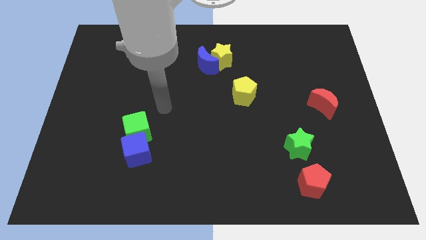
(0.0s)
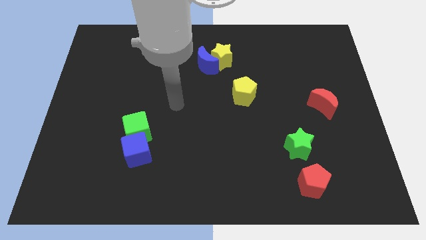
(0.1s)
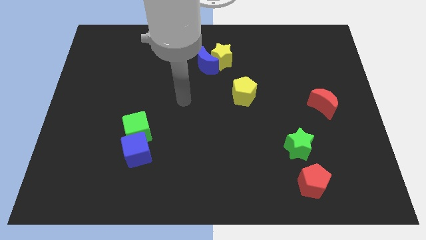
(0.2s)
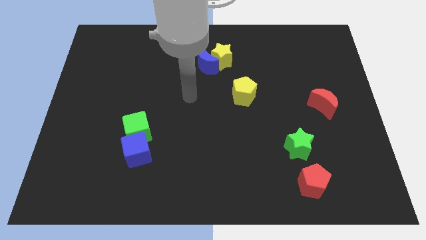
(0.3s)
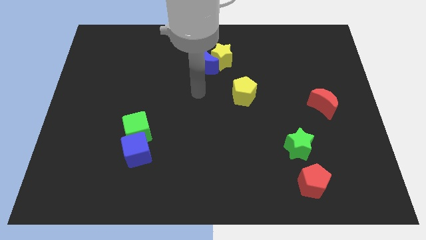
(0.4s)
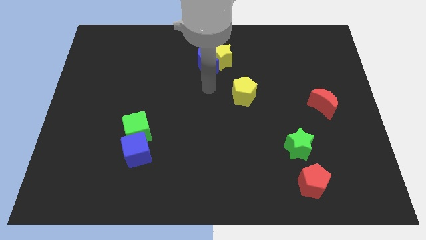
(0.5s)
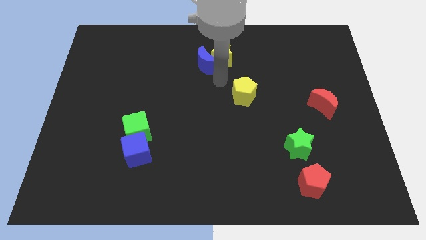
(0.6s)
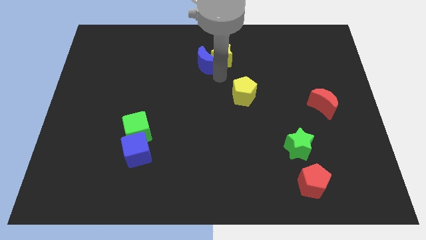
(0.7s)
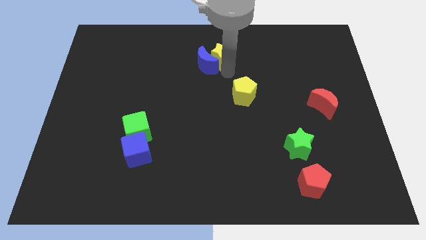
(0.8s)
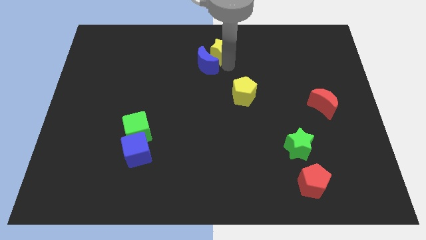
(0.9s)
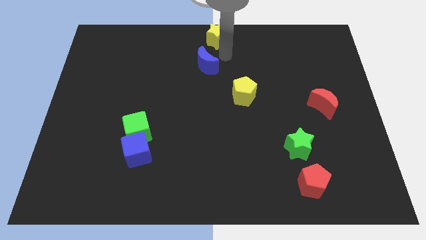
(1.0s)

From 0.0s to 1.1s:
pull the blue moon apart from the yellow star

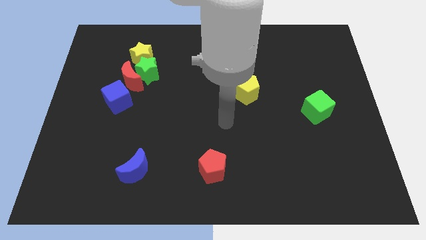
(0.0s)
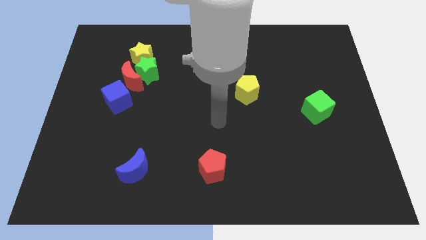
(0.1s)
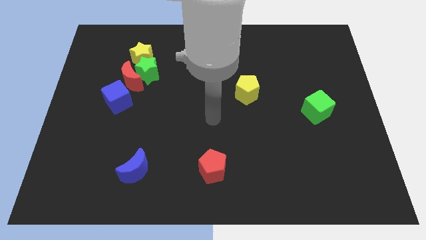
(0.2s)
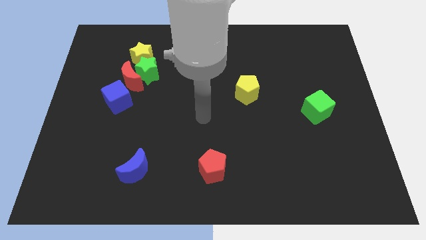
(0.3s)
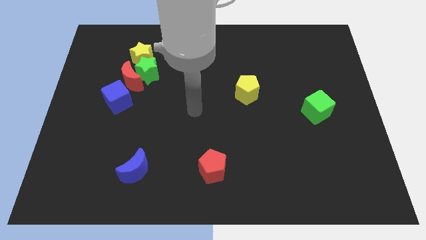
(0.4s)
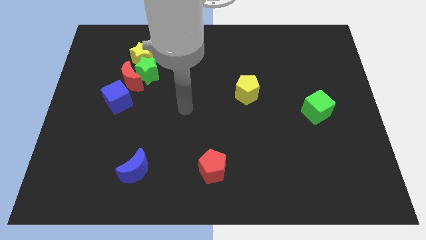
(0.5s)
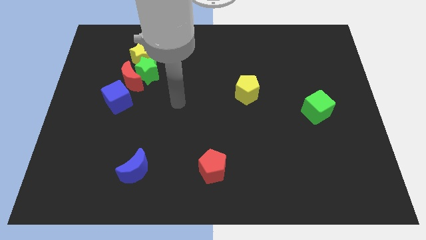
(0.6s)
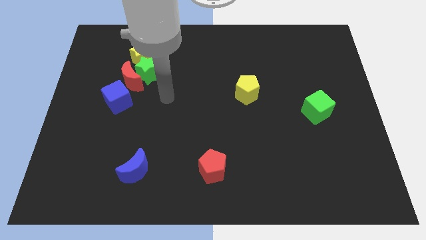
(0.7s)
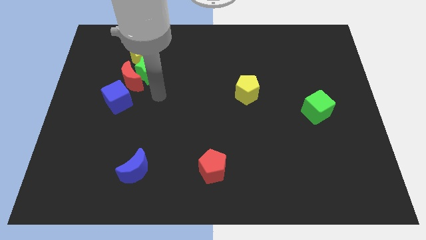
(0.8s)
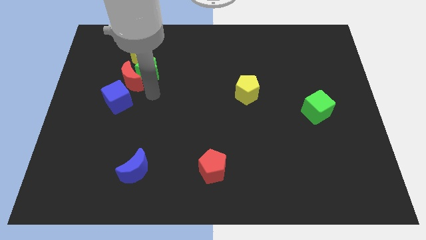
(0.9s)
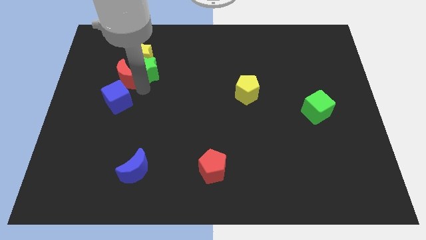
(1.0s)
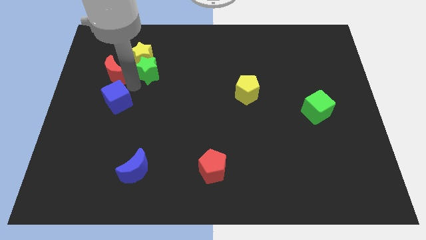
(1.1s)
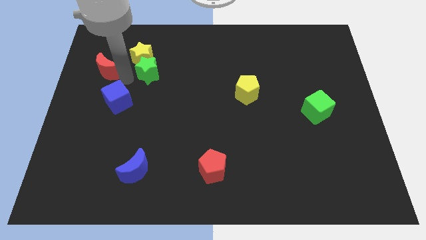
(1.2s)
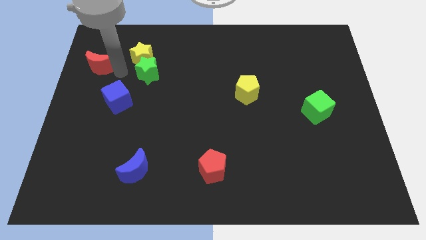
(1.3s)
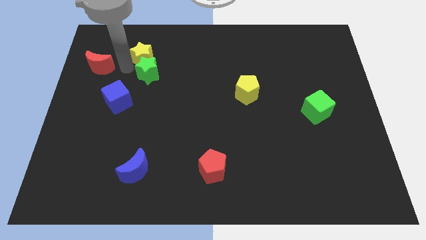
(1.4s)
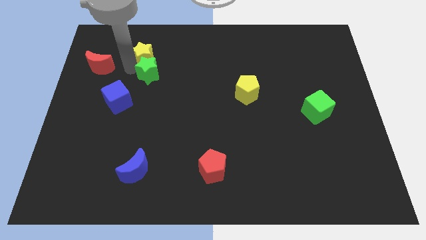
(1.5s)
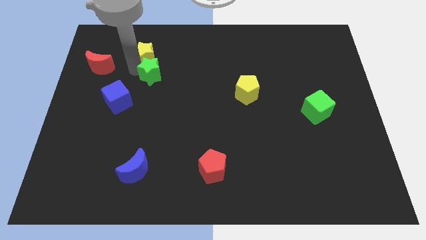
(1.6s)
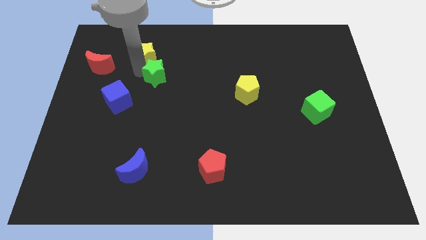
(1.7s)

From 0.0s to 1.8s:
pull the green star apart from the red moon and yellow star

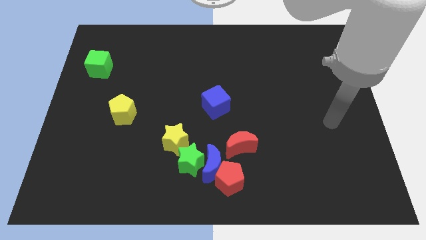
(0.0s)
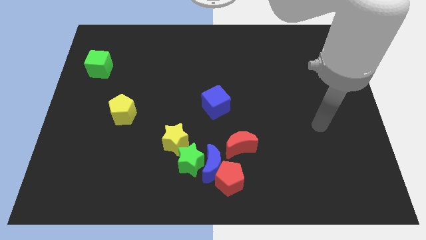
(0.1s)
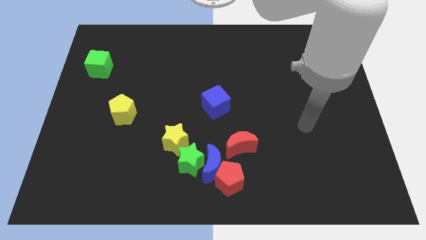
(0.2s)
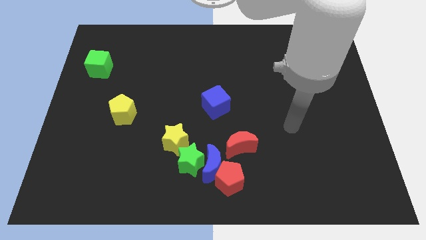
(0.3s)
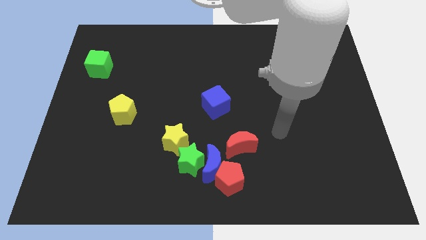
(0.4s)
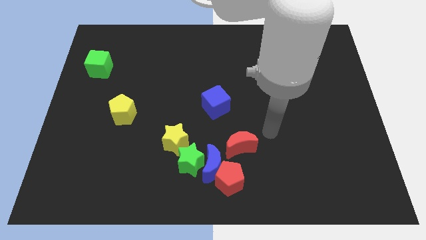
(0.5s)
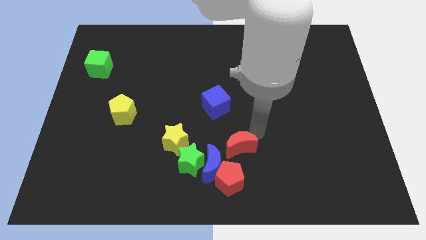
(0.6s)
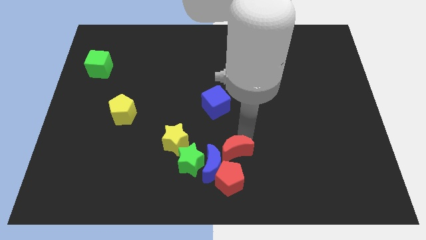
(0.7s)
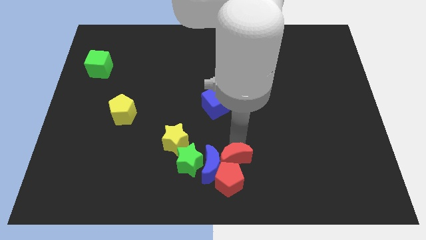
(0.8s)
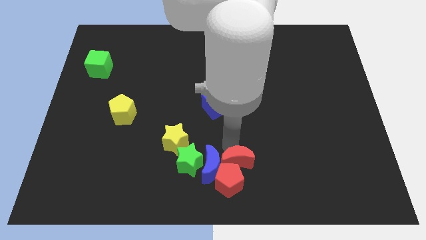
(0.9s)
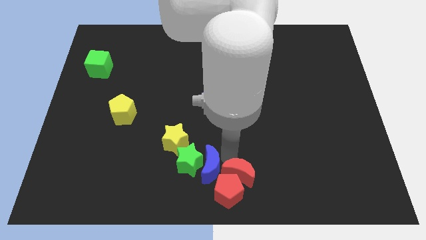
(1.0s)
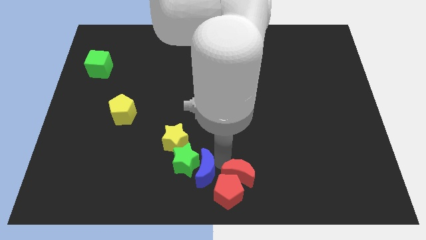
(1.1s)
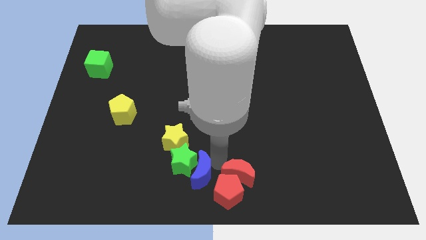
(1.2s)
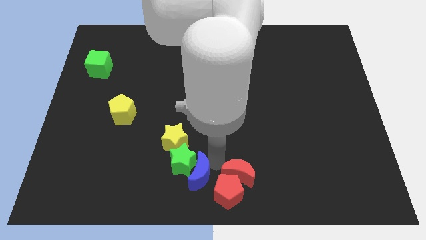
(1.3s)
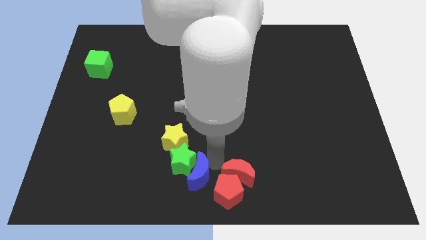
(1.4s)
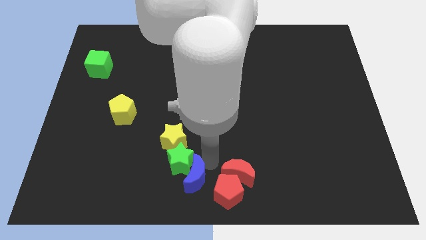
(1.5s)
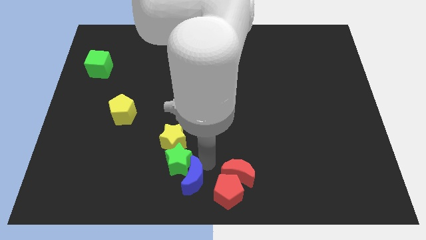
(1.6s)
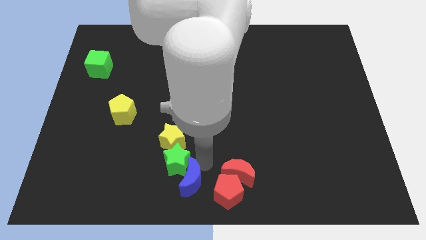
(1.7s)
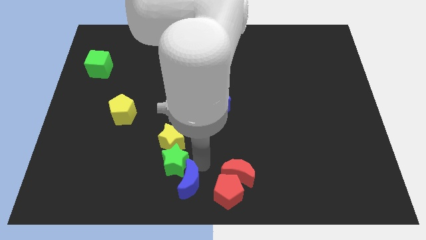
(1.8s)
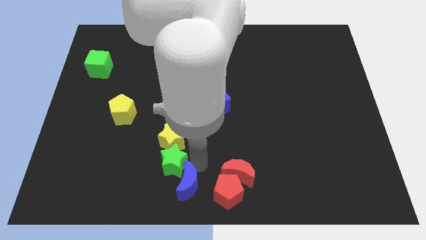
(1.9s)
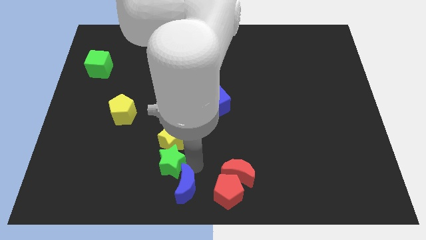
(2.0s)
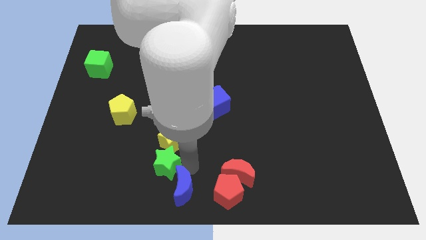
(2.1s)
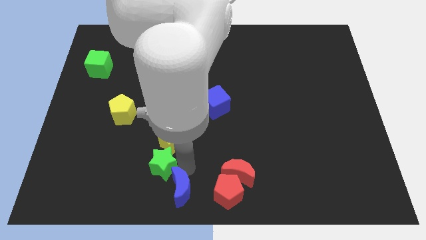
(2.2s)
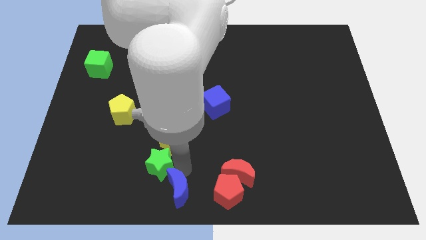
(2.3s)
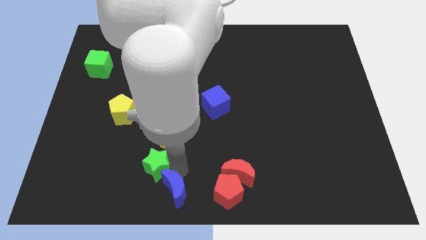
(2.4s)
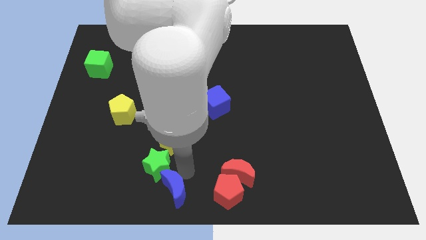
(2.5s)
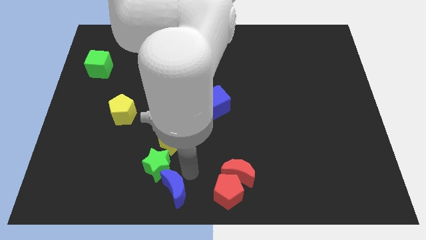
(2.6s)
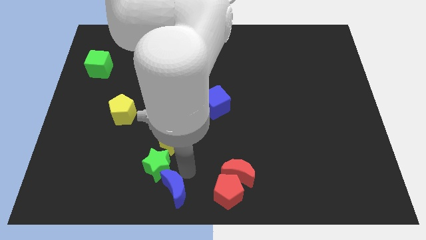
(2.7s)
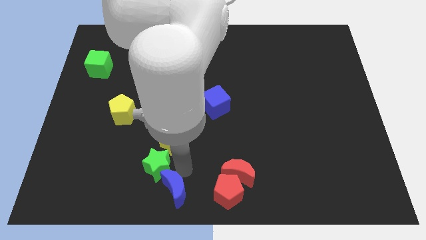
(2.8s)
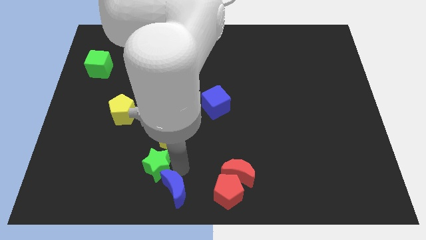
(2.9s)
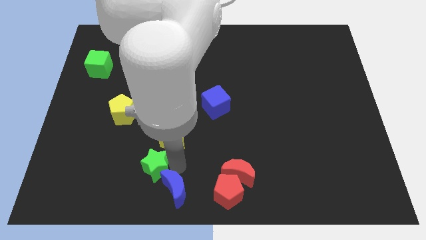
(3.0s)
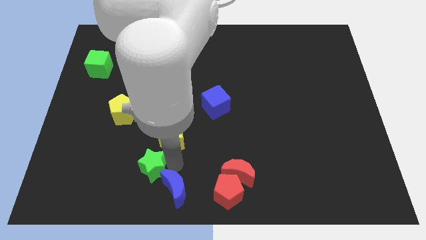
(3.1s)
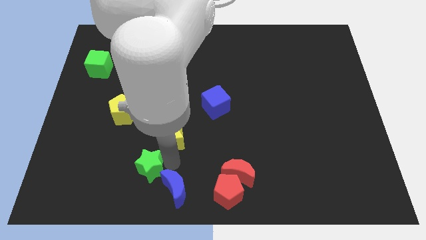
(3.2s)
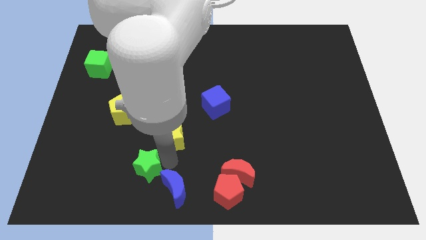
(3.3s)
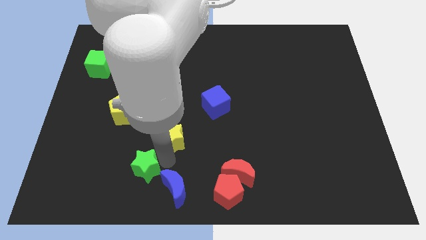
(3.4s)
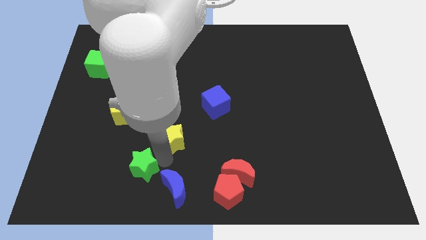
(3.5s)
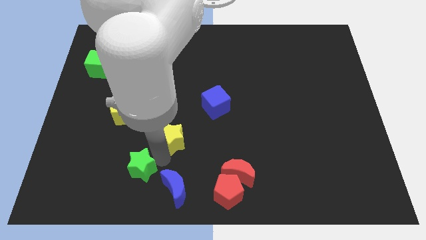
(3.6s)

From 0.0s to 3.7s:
move the green star away from the blue moon, yellow star, and red pentagon

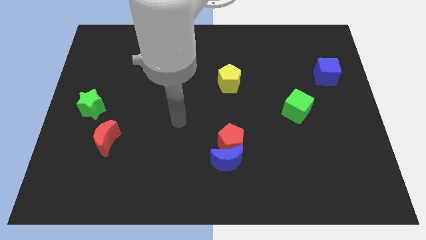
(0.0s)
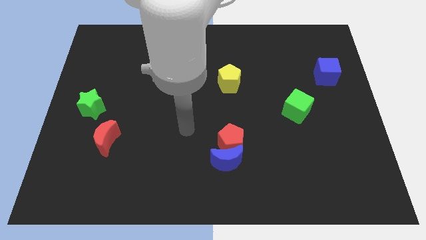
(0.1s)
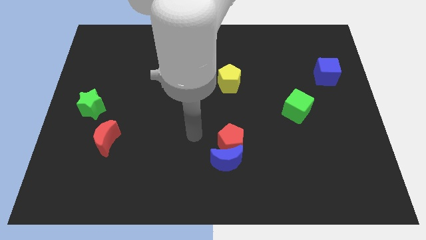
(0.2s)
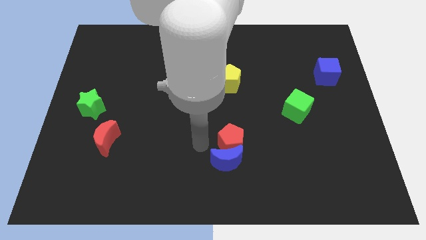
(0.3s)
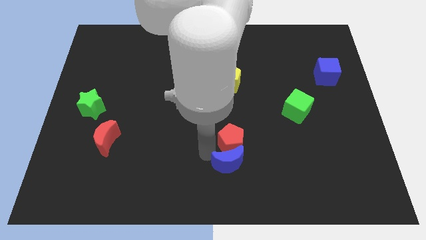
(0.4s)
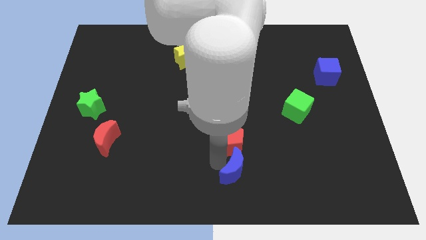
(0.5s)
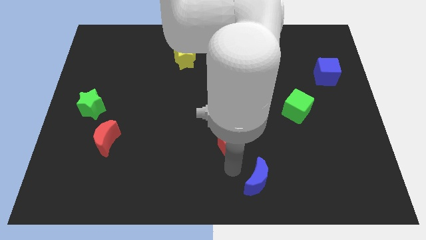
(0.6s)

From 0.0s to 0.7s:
pull the red pentagon apart from the blue moon

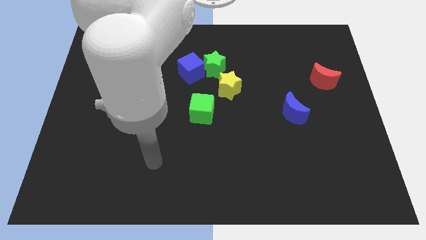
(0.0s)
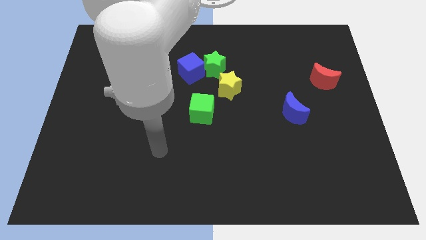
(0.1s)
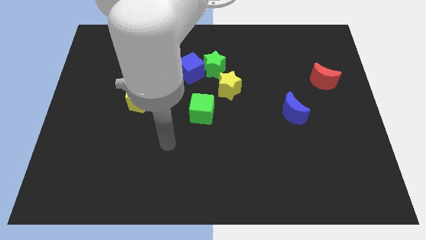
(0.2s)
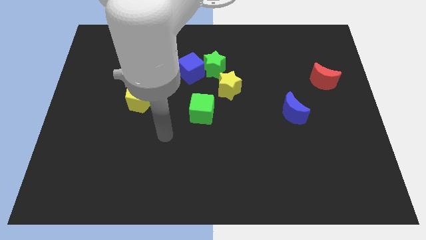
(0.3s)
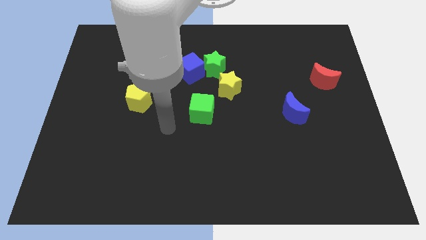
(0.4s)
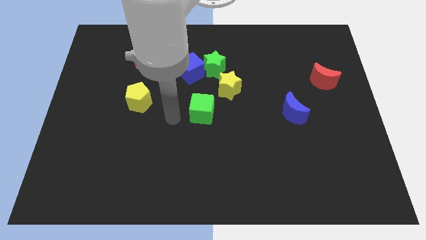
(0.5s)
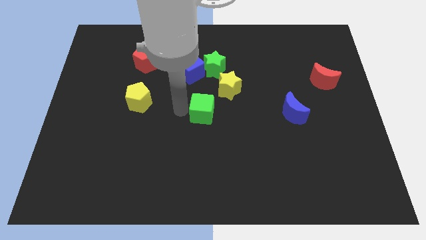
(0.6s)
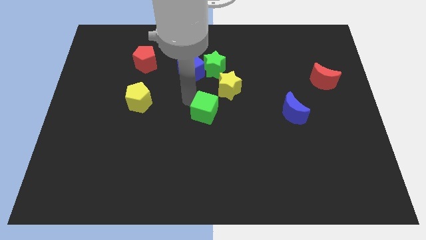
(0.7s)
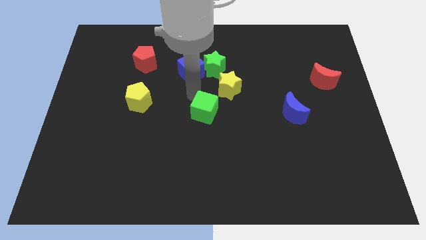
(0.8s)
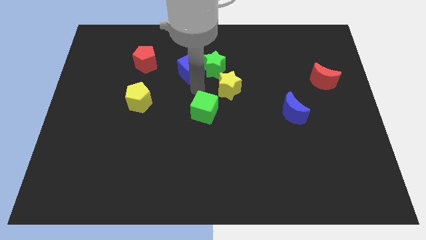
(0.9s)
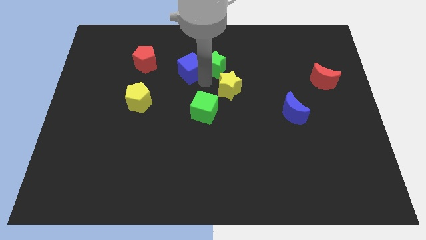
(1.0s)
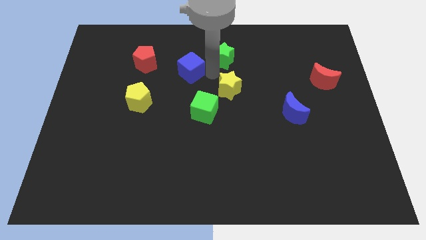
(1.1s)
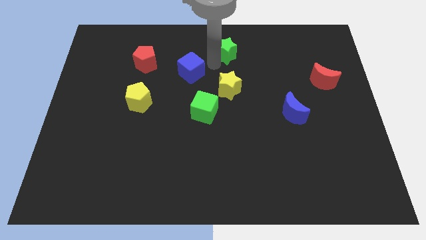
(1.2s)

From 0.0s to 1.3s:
move the blue cube away from the green star

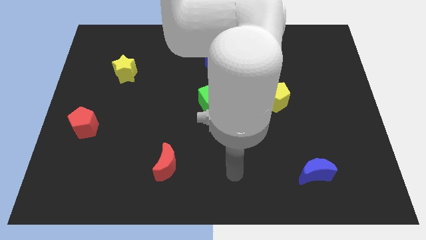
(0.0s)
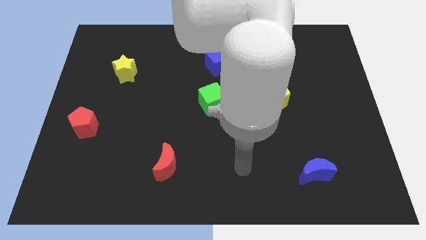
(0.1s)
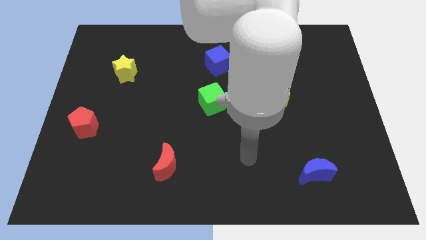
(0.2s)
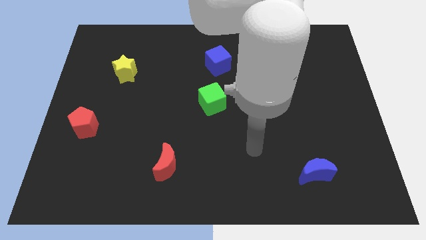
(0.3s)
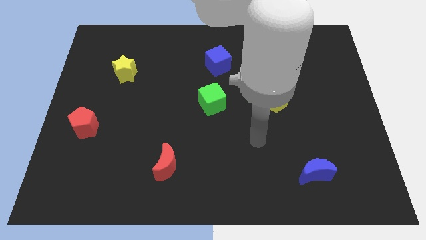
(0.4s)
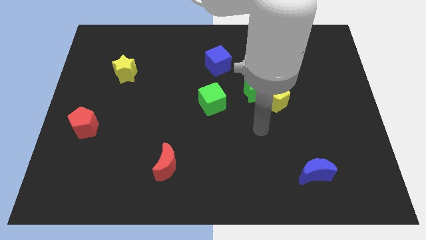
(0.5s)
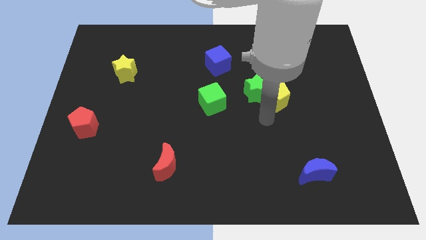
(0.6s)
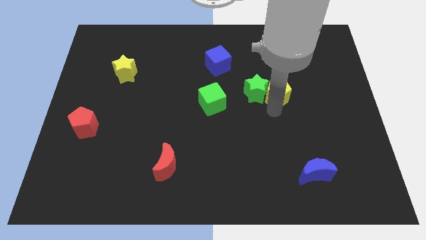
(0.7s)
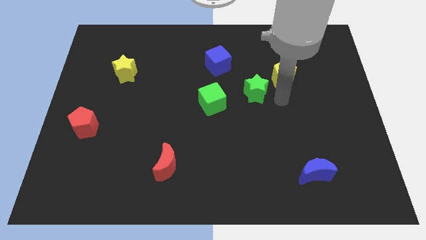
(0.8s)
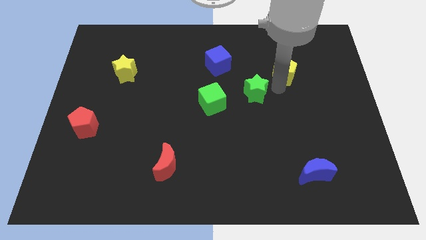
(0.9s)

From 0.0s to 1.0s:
move the green star away from the yellow pentagon
